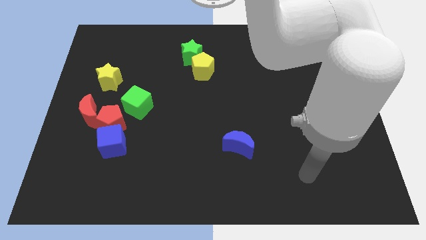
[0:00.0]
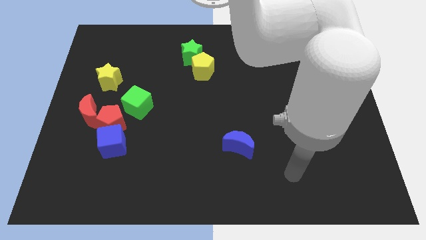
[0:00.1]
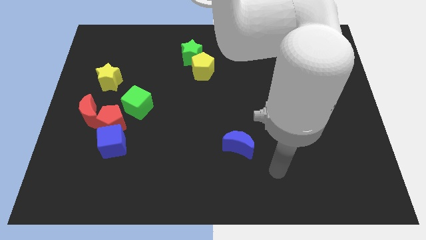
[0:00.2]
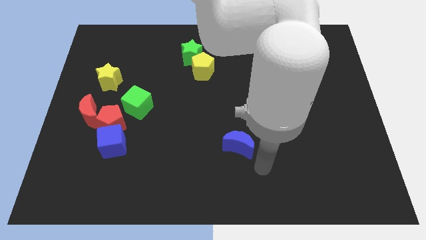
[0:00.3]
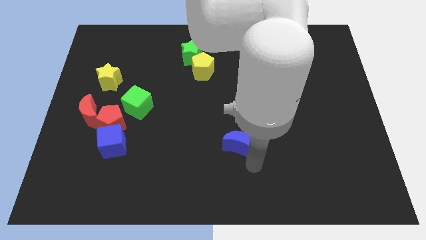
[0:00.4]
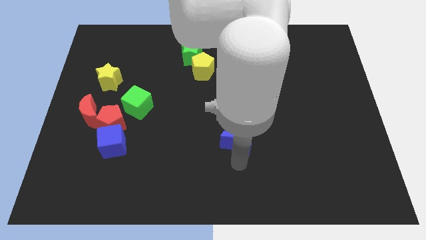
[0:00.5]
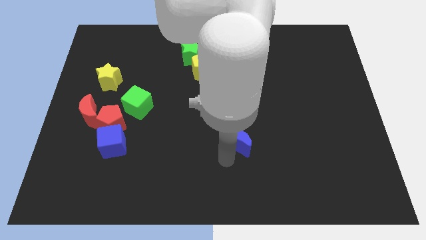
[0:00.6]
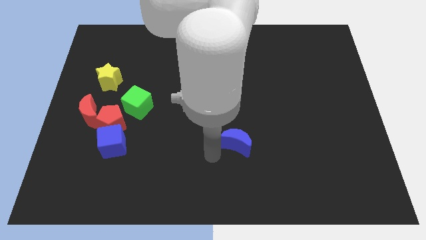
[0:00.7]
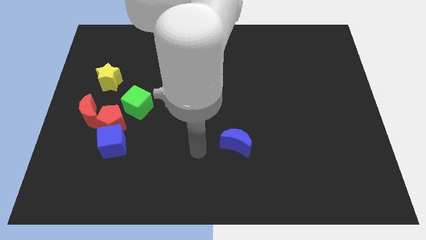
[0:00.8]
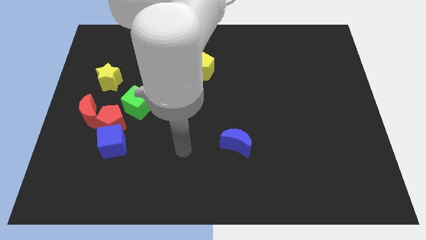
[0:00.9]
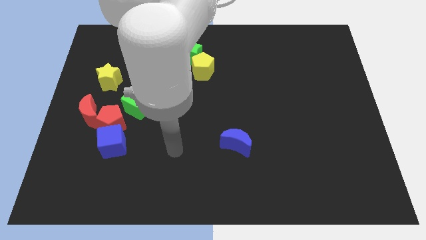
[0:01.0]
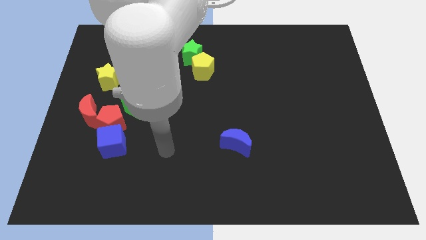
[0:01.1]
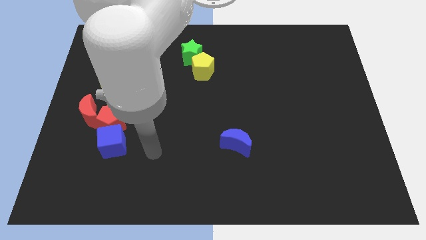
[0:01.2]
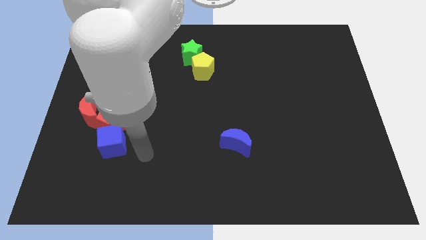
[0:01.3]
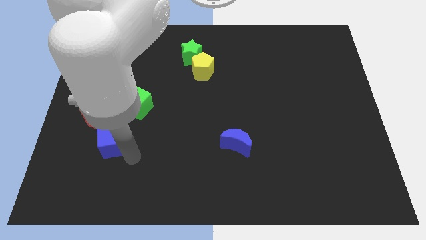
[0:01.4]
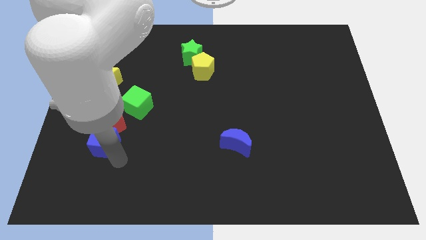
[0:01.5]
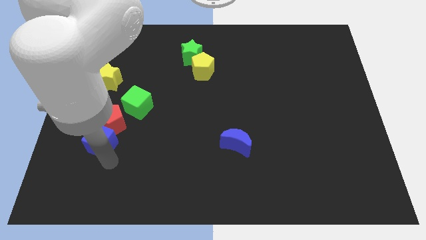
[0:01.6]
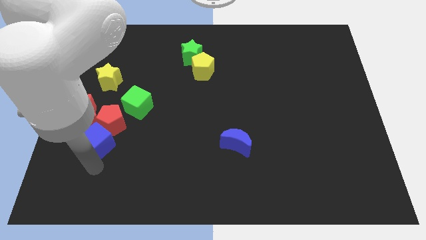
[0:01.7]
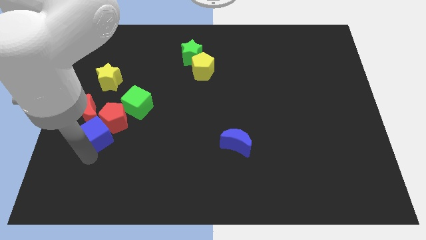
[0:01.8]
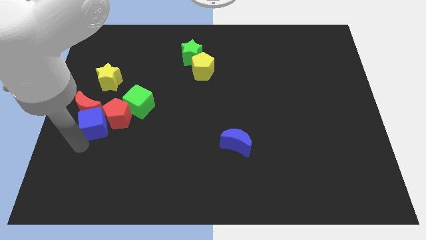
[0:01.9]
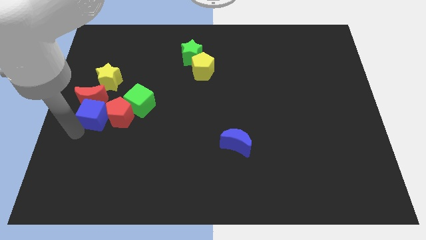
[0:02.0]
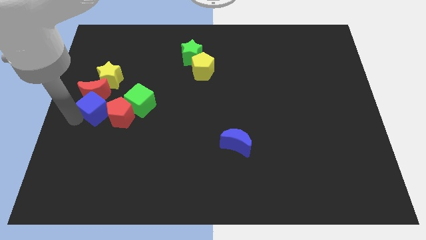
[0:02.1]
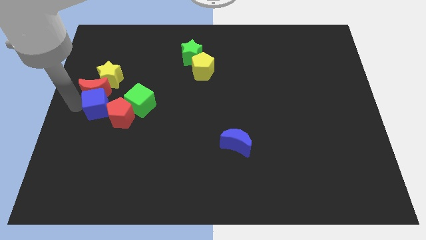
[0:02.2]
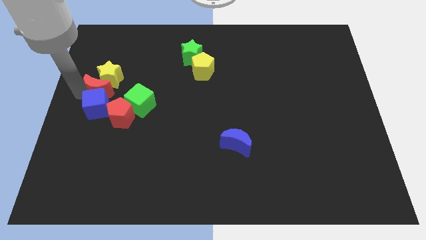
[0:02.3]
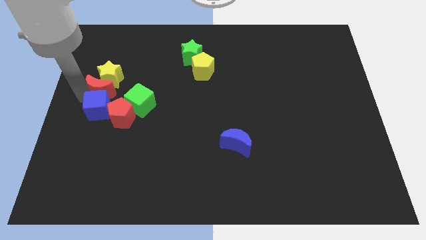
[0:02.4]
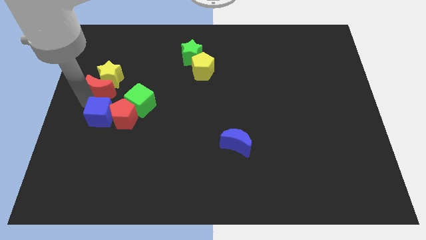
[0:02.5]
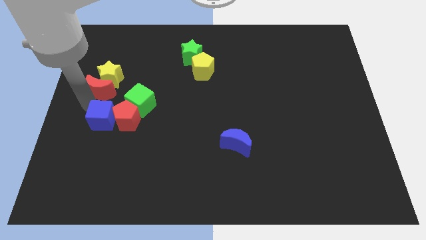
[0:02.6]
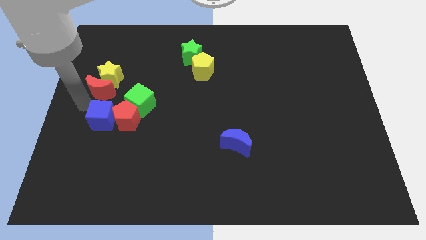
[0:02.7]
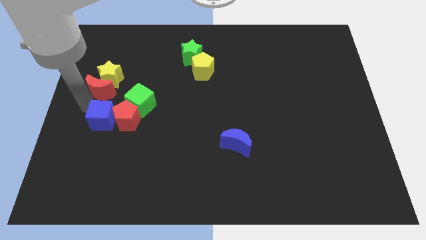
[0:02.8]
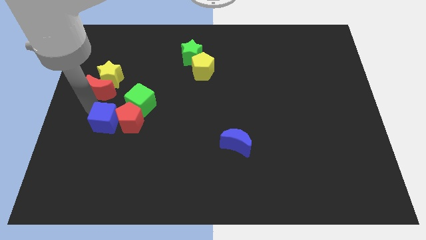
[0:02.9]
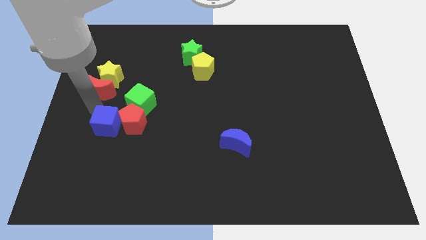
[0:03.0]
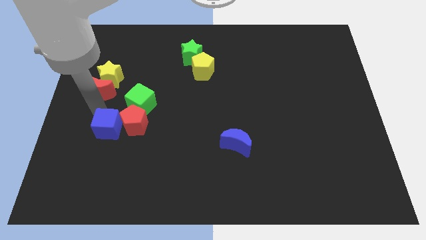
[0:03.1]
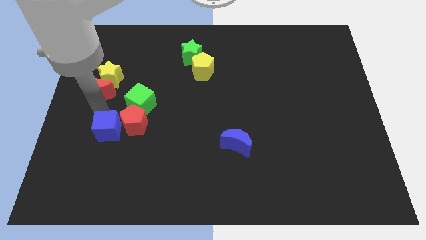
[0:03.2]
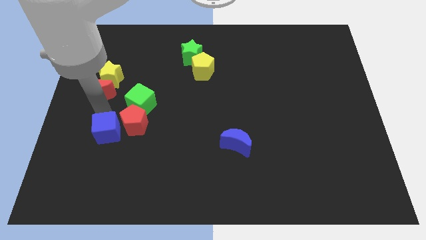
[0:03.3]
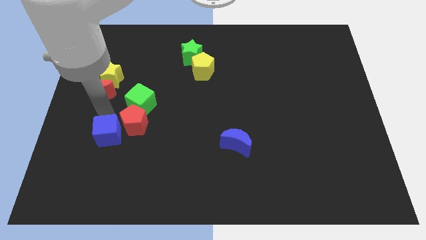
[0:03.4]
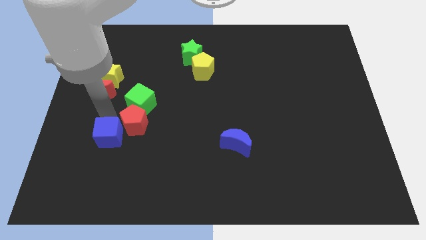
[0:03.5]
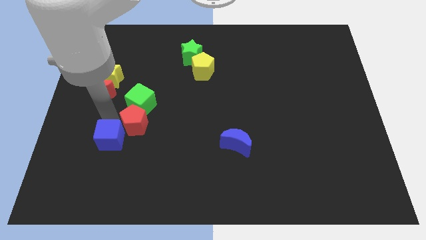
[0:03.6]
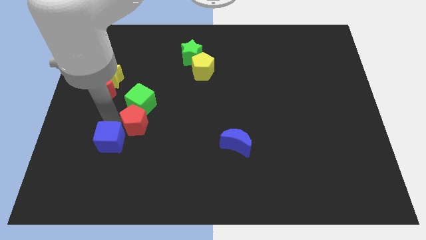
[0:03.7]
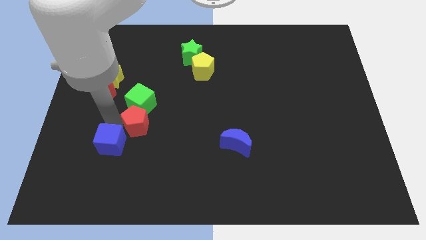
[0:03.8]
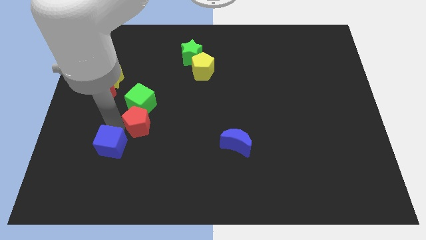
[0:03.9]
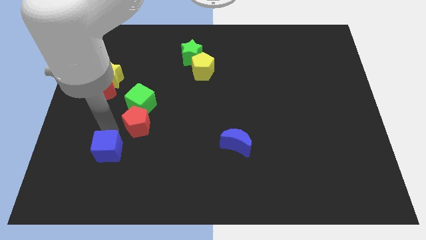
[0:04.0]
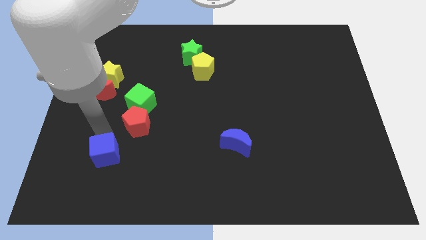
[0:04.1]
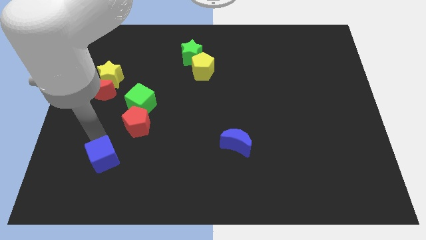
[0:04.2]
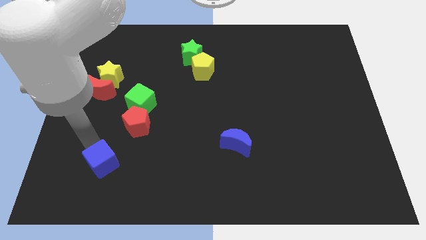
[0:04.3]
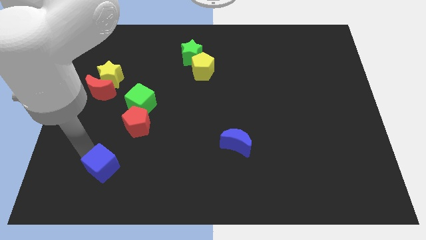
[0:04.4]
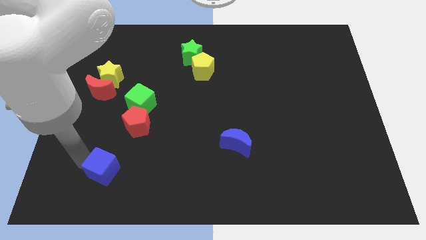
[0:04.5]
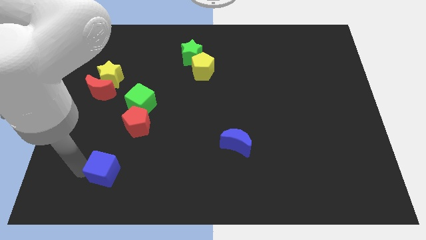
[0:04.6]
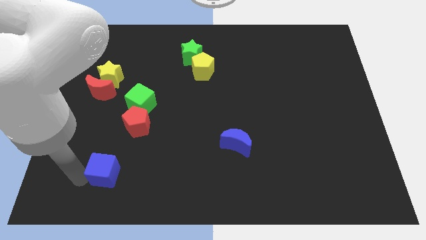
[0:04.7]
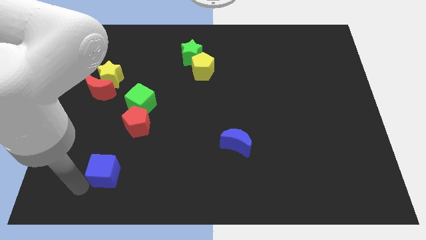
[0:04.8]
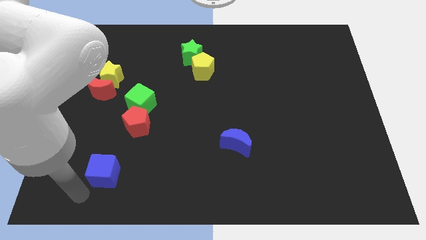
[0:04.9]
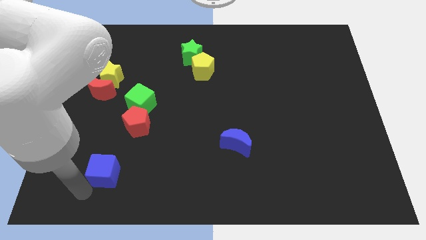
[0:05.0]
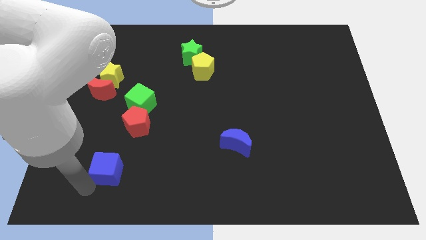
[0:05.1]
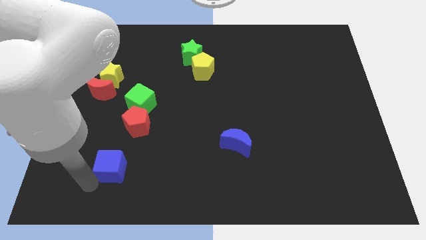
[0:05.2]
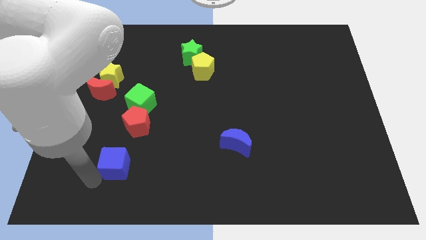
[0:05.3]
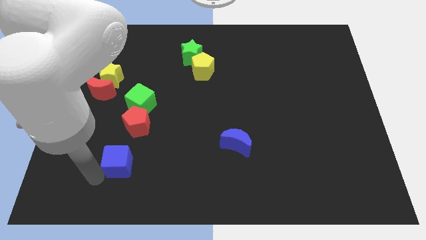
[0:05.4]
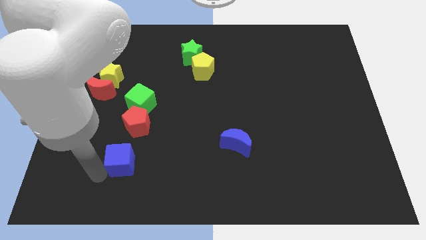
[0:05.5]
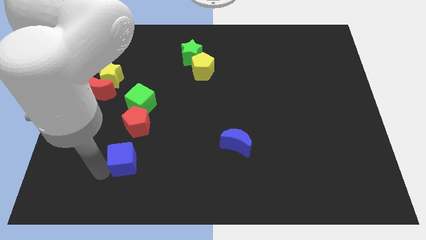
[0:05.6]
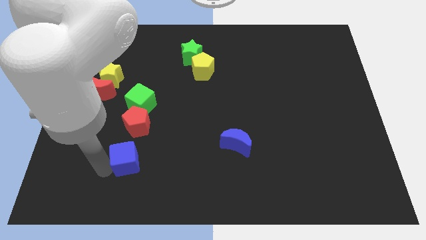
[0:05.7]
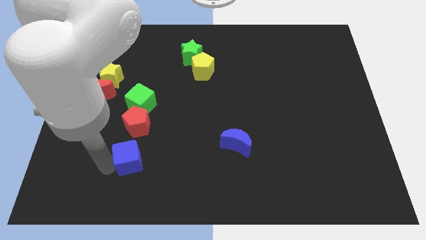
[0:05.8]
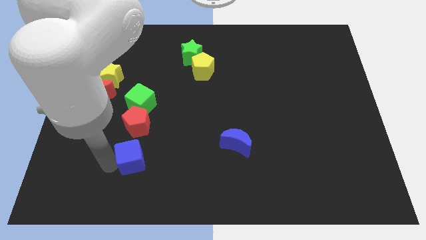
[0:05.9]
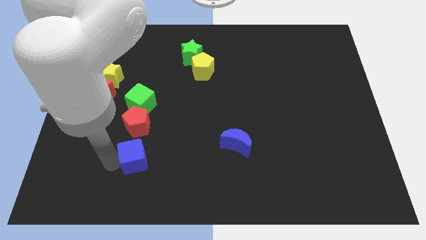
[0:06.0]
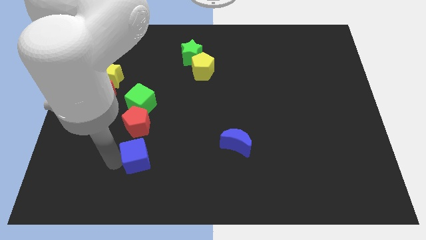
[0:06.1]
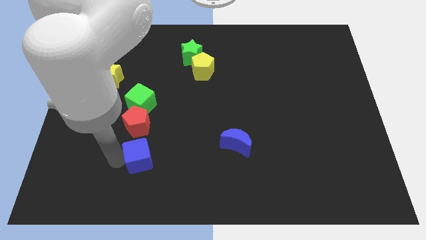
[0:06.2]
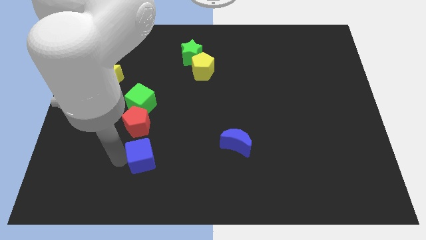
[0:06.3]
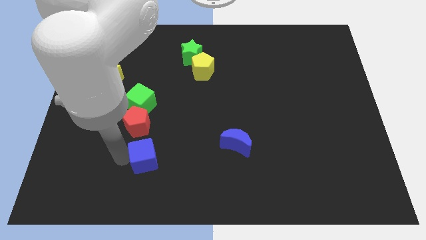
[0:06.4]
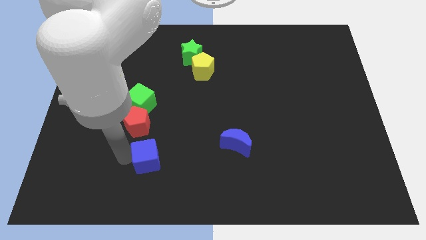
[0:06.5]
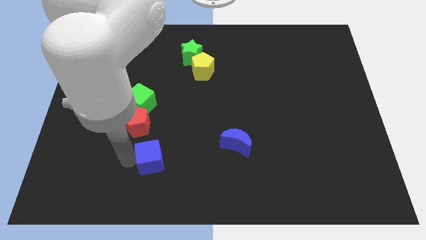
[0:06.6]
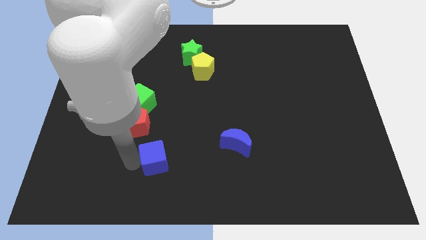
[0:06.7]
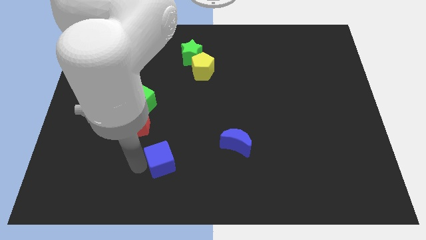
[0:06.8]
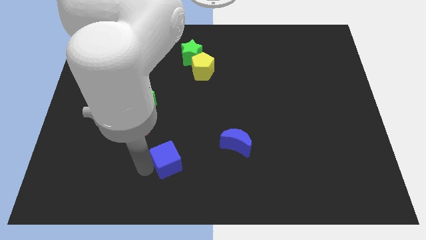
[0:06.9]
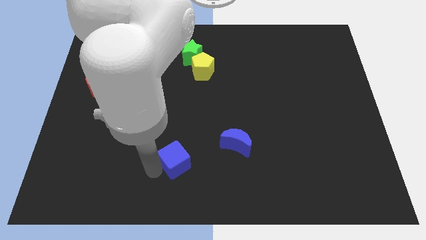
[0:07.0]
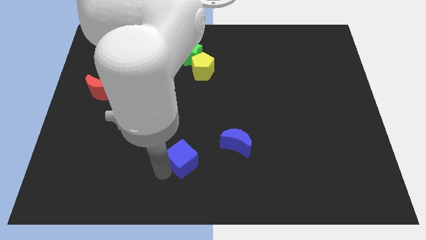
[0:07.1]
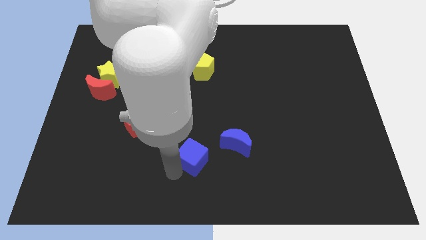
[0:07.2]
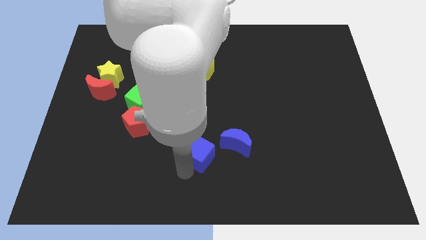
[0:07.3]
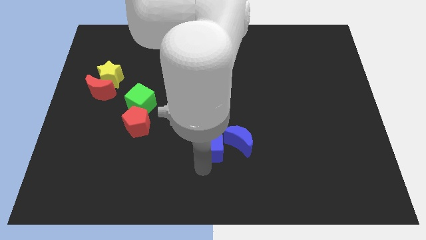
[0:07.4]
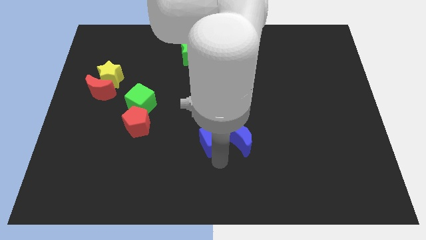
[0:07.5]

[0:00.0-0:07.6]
put the blue cube to the top left side of the blue moon
